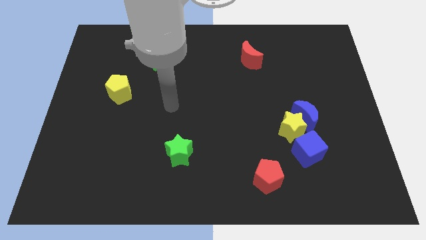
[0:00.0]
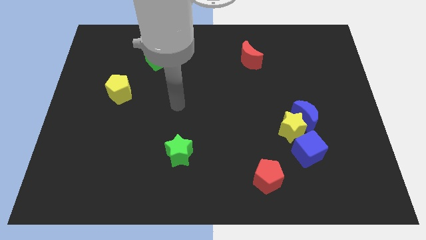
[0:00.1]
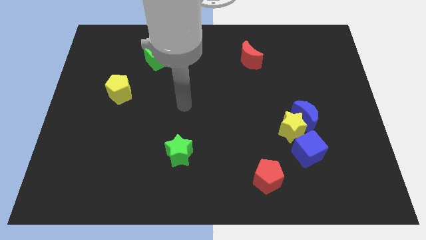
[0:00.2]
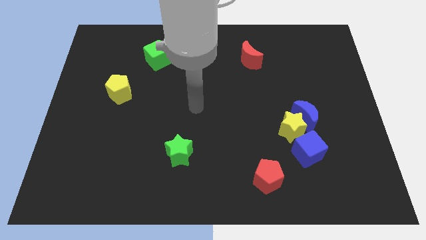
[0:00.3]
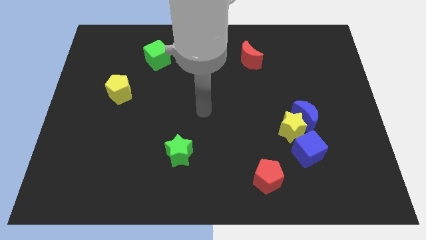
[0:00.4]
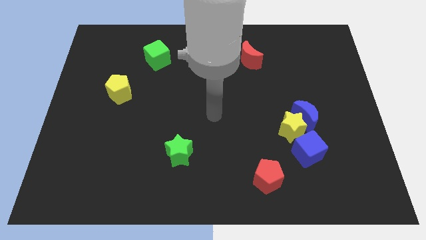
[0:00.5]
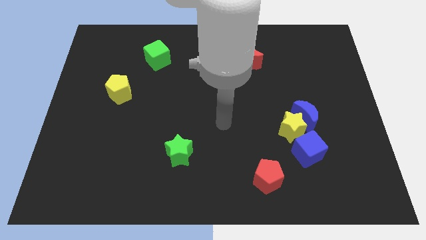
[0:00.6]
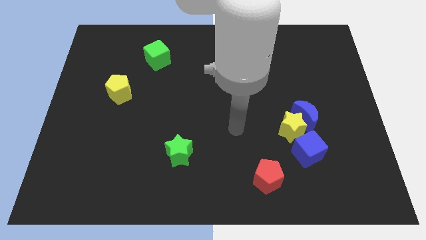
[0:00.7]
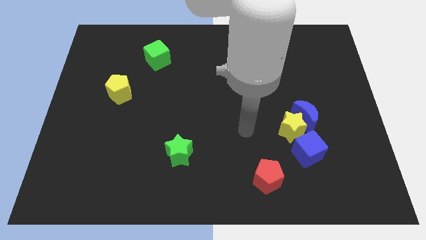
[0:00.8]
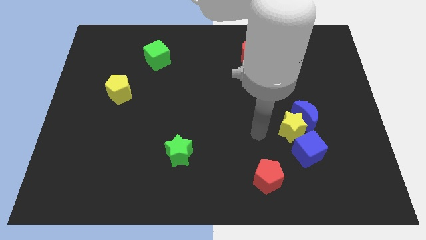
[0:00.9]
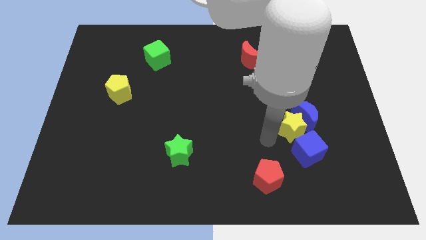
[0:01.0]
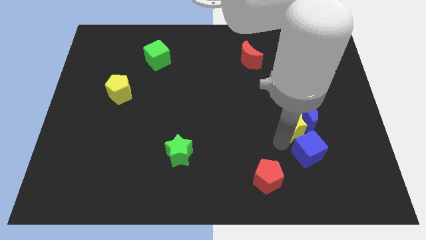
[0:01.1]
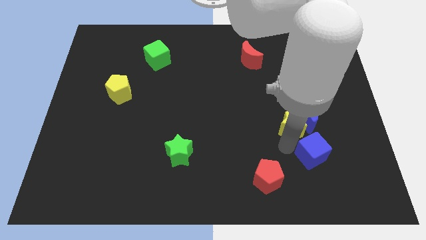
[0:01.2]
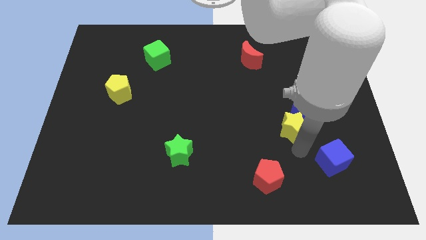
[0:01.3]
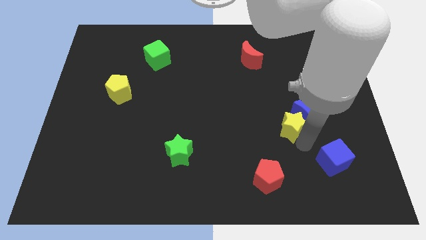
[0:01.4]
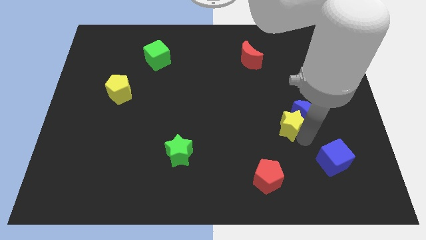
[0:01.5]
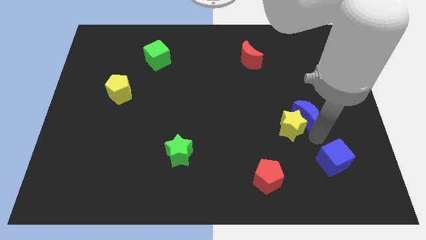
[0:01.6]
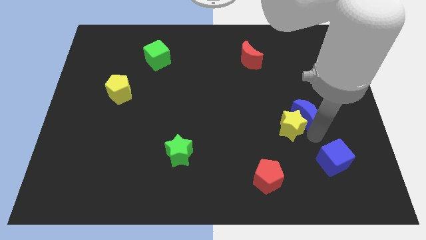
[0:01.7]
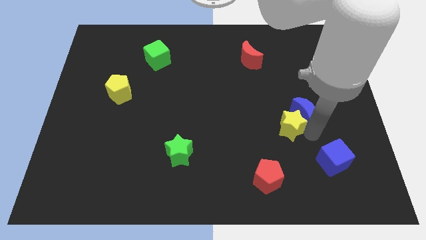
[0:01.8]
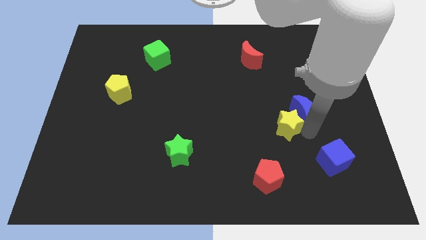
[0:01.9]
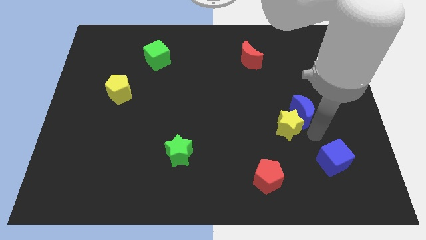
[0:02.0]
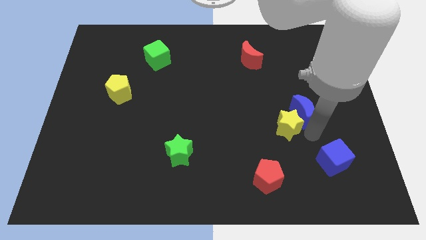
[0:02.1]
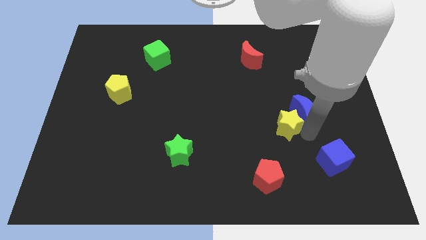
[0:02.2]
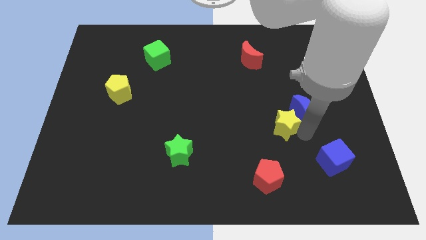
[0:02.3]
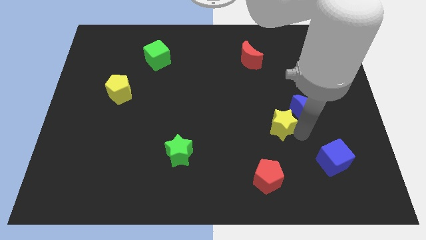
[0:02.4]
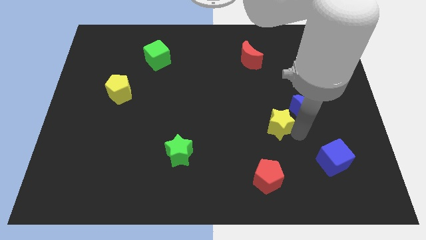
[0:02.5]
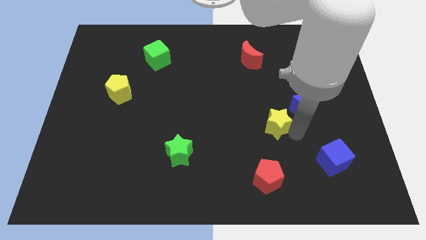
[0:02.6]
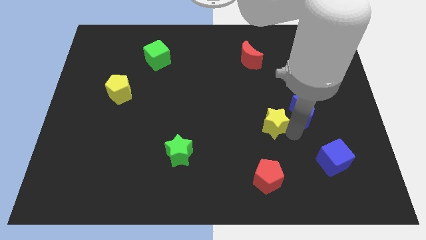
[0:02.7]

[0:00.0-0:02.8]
separate the yellow star from the blue moon and blue cube

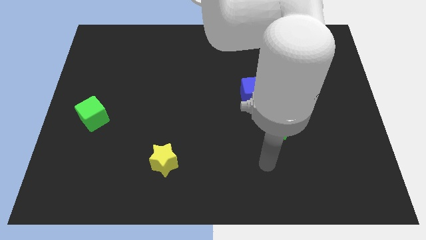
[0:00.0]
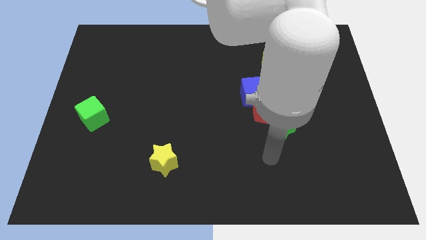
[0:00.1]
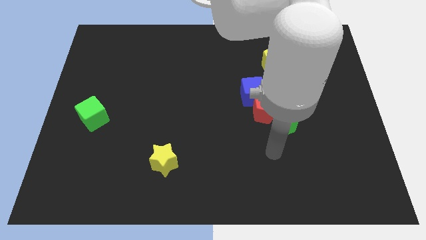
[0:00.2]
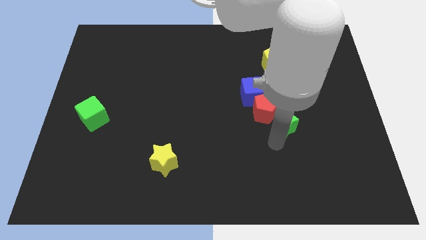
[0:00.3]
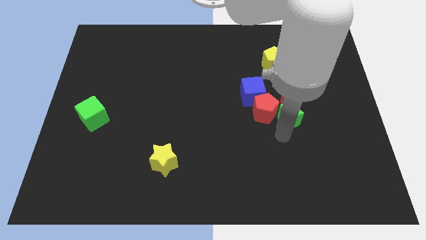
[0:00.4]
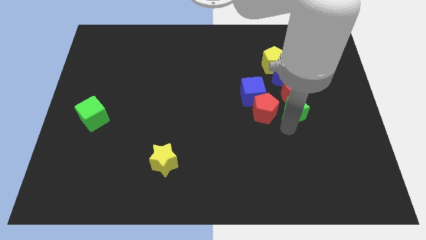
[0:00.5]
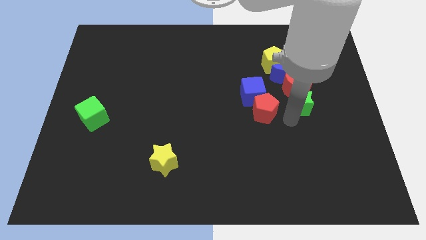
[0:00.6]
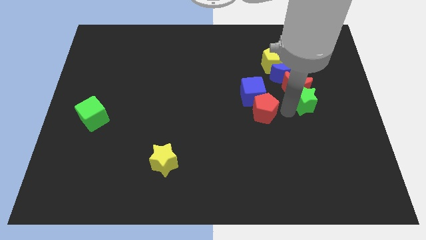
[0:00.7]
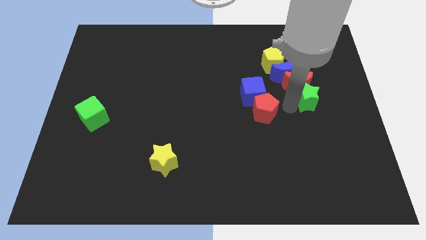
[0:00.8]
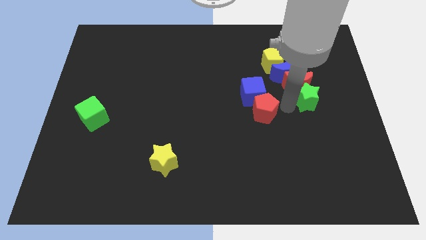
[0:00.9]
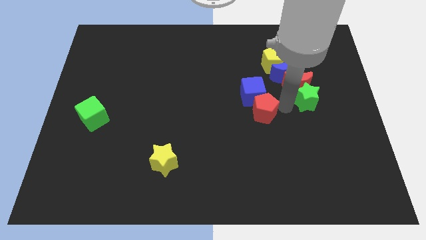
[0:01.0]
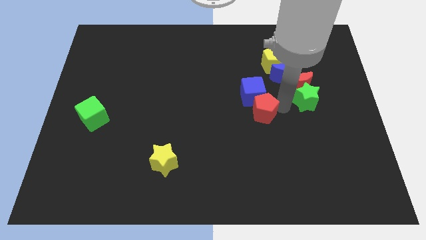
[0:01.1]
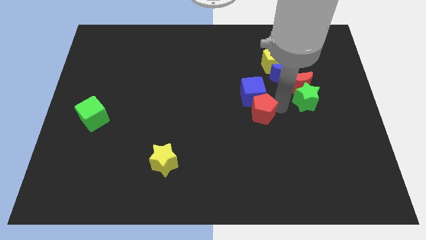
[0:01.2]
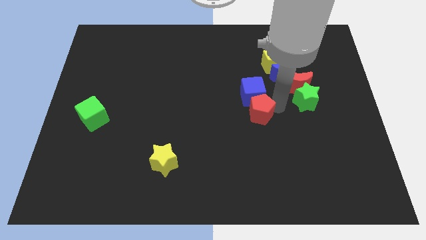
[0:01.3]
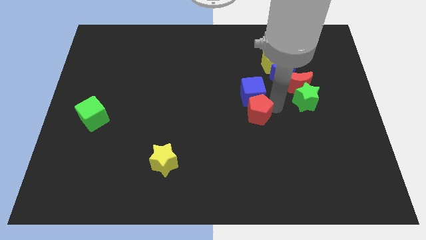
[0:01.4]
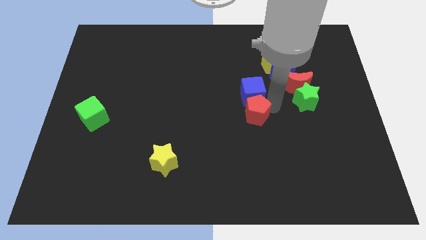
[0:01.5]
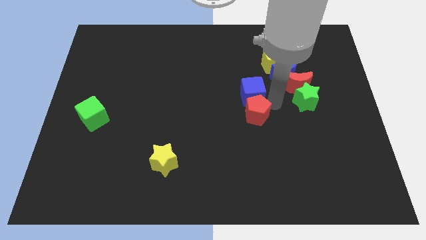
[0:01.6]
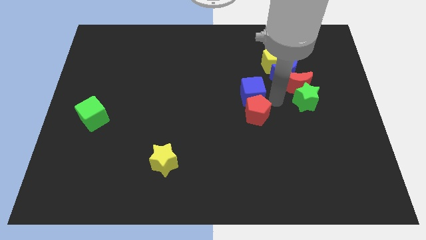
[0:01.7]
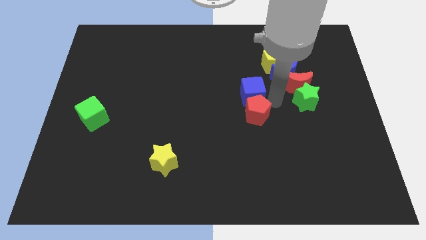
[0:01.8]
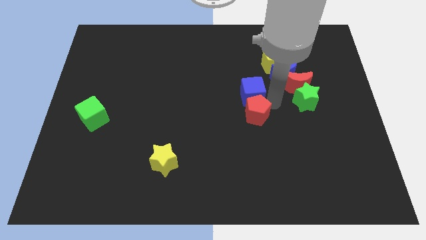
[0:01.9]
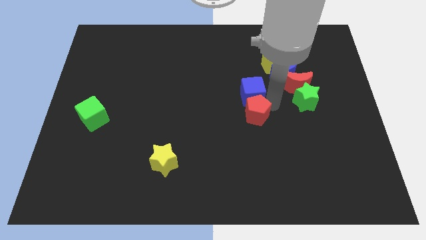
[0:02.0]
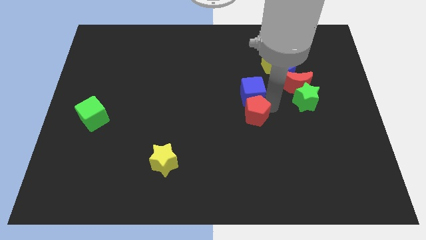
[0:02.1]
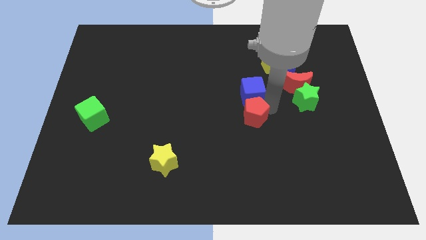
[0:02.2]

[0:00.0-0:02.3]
move the red pentagon away from the group of blocks

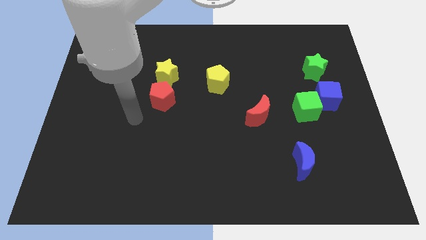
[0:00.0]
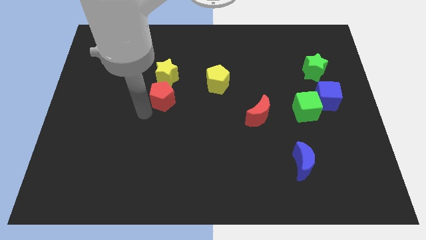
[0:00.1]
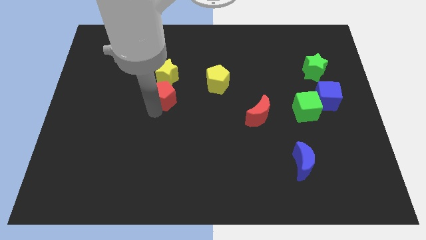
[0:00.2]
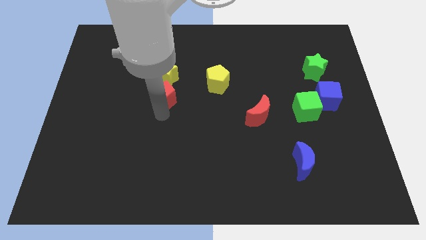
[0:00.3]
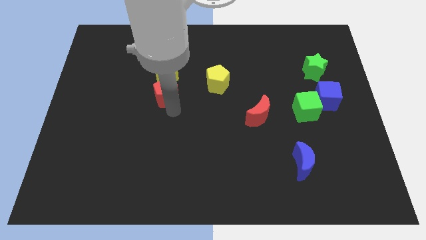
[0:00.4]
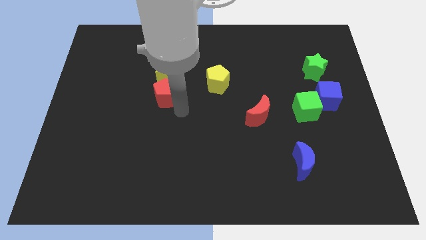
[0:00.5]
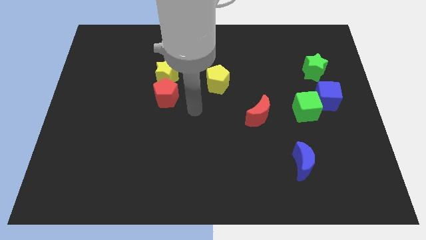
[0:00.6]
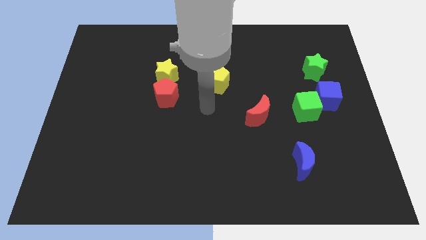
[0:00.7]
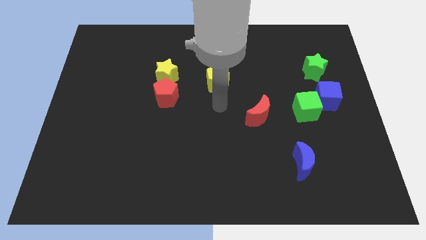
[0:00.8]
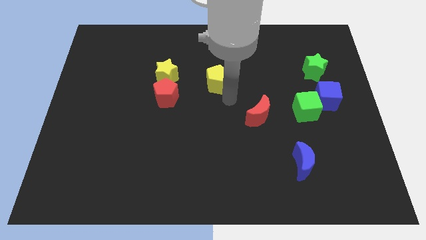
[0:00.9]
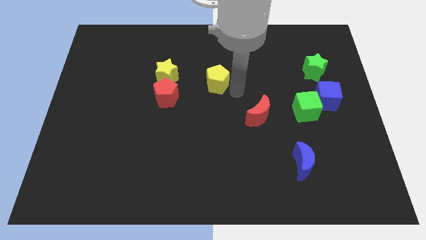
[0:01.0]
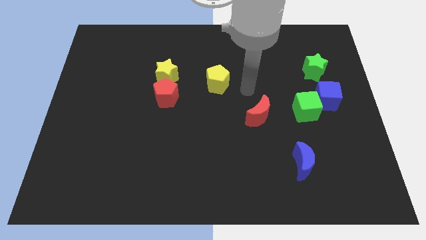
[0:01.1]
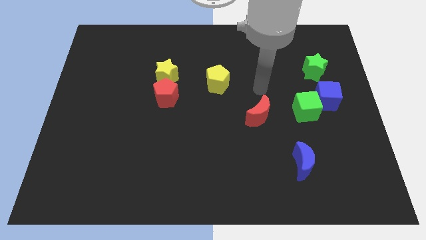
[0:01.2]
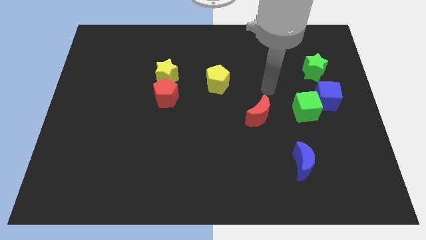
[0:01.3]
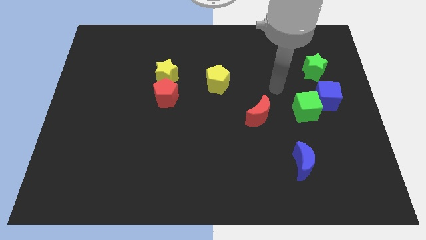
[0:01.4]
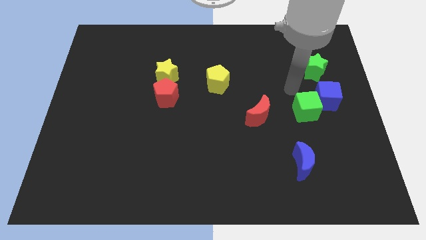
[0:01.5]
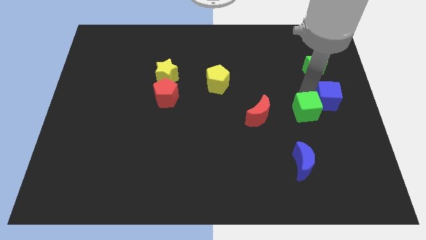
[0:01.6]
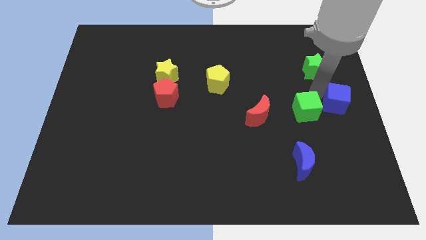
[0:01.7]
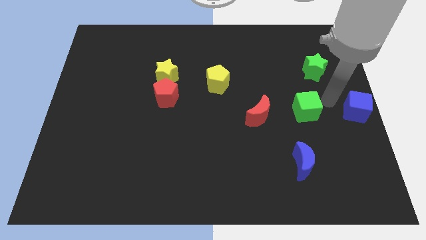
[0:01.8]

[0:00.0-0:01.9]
separate the green cube from the blue cube

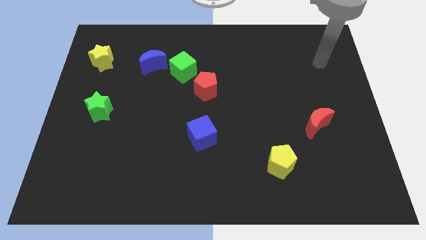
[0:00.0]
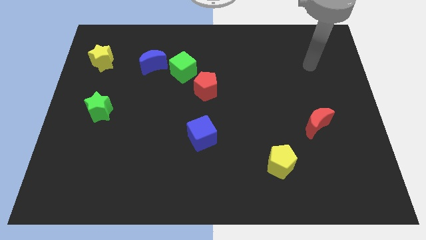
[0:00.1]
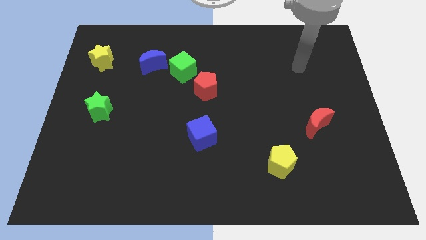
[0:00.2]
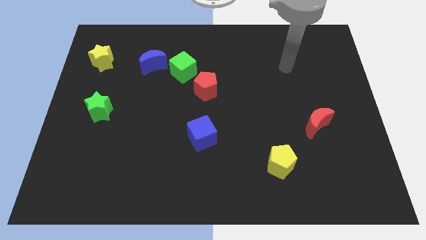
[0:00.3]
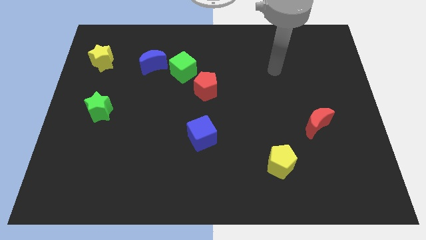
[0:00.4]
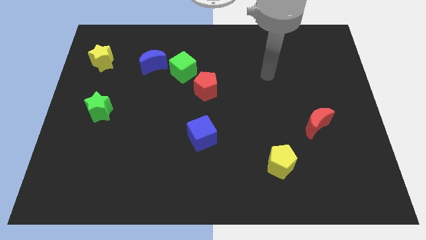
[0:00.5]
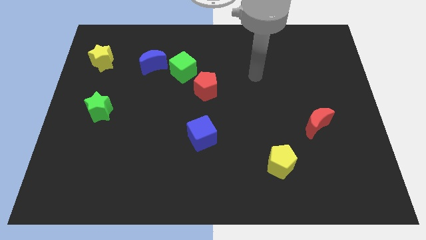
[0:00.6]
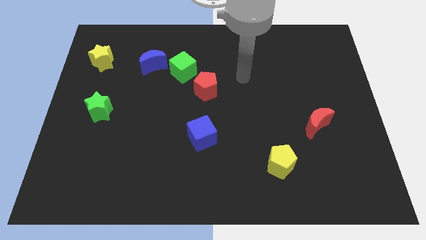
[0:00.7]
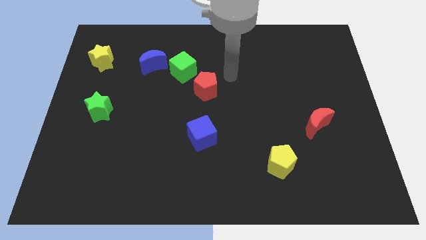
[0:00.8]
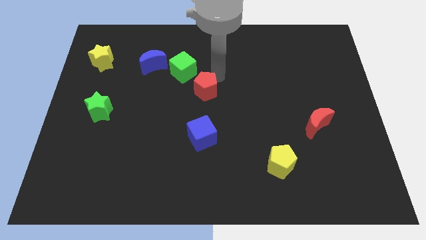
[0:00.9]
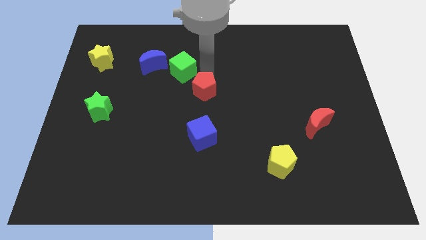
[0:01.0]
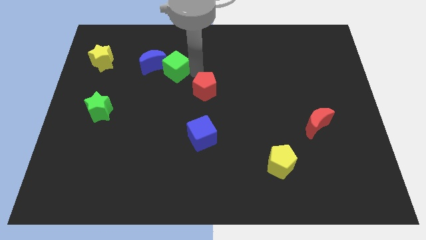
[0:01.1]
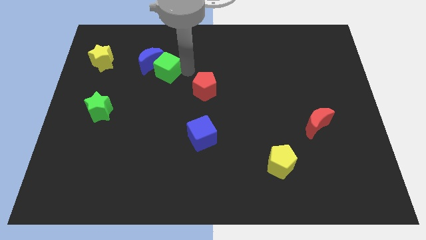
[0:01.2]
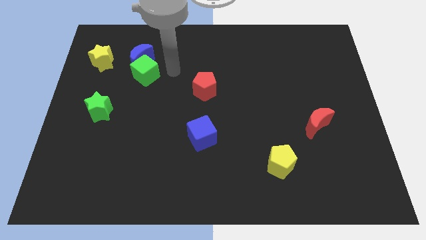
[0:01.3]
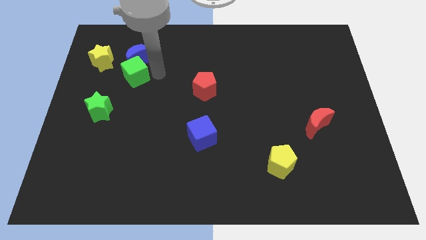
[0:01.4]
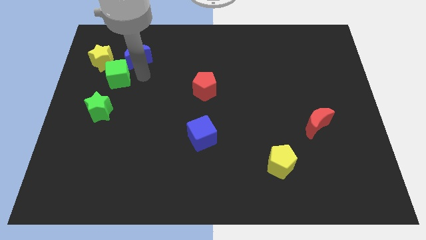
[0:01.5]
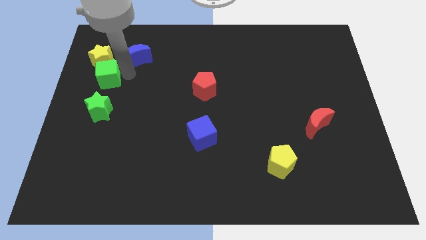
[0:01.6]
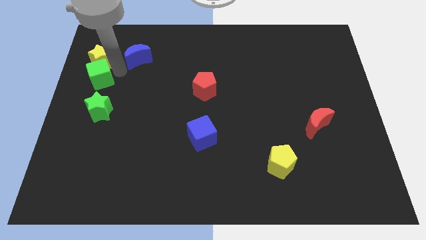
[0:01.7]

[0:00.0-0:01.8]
separate the blue moon from the green cube

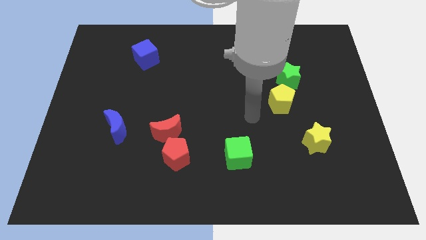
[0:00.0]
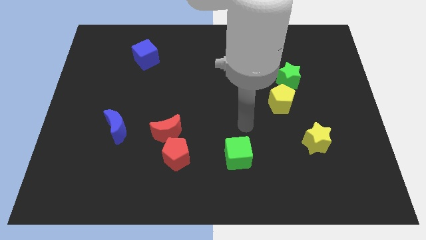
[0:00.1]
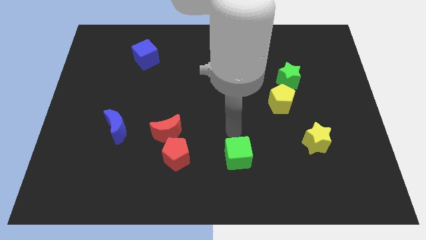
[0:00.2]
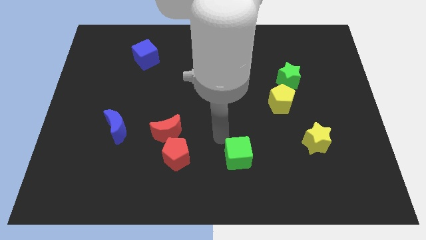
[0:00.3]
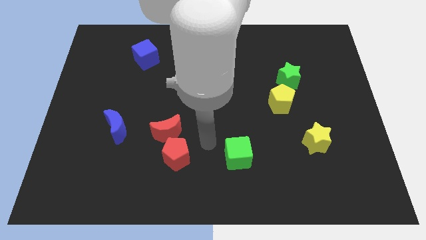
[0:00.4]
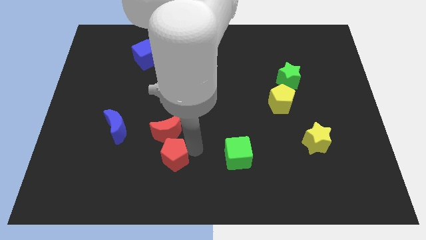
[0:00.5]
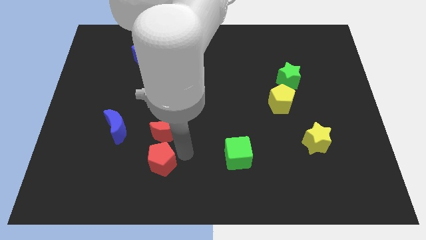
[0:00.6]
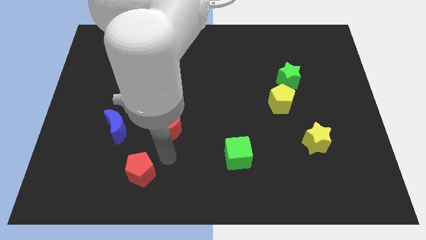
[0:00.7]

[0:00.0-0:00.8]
separate the red moon from the red pentagon
